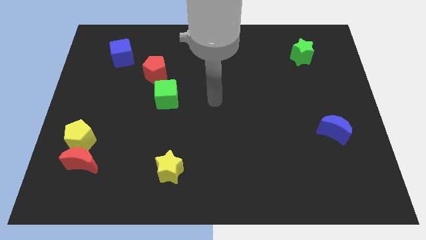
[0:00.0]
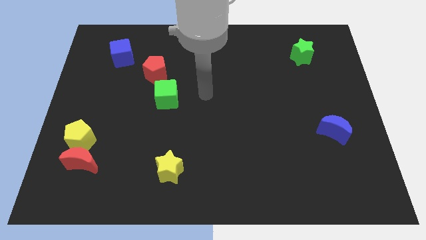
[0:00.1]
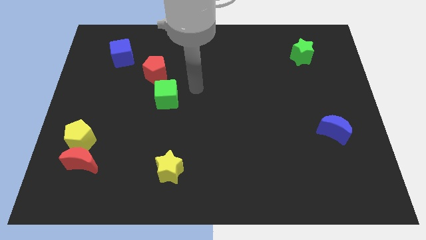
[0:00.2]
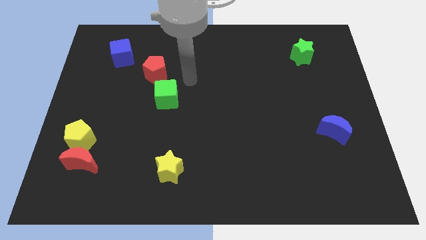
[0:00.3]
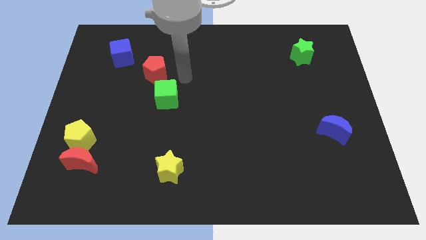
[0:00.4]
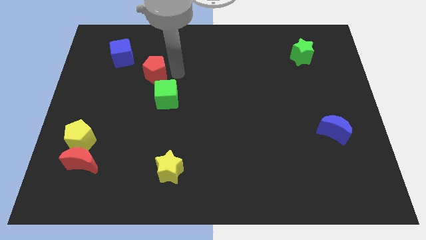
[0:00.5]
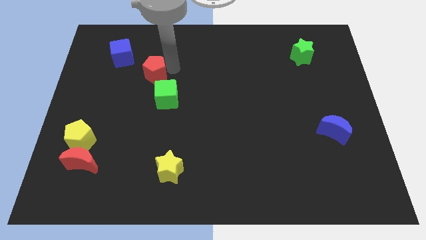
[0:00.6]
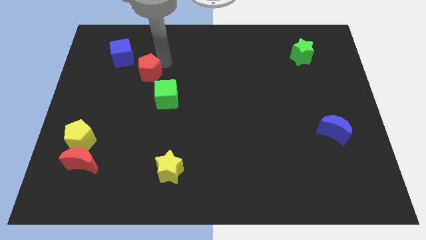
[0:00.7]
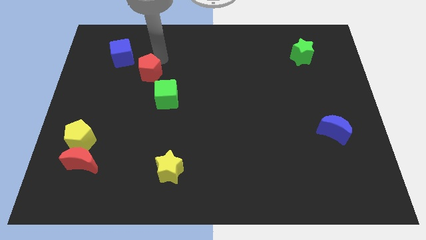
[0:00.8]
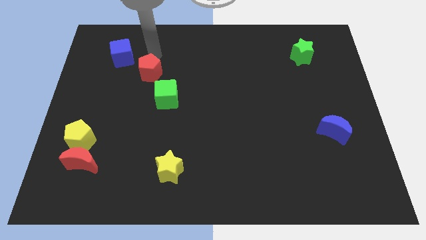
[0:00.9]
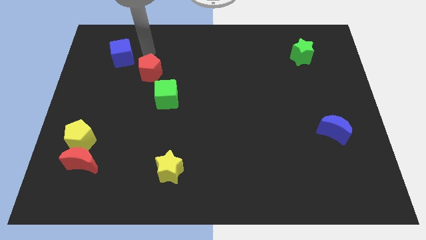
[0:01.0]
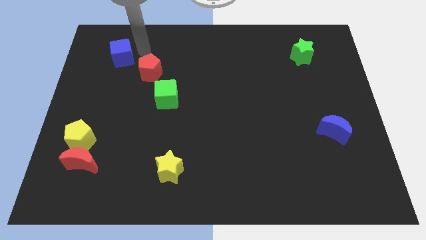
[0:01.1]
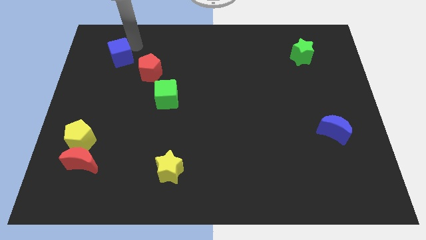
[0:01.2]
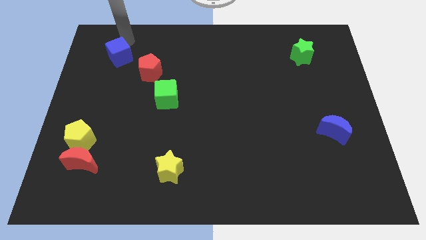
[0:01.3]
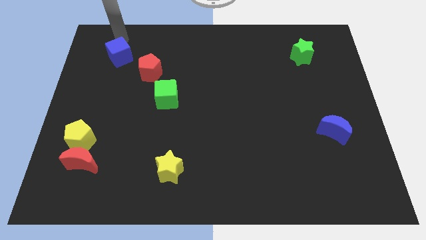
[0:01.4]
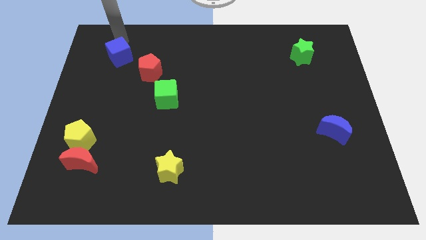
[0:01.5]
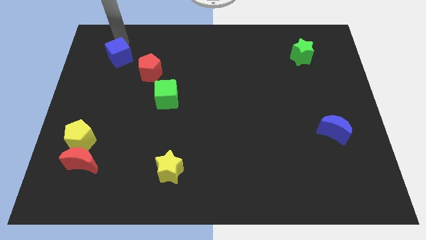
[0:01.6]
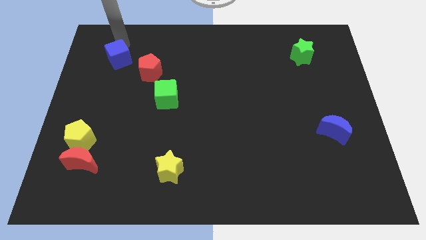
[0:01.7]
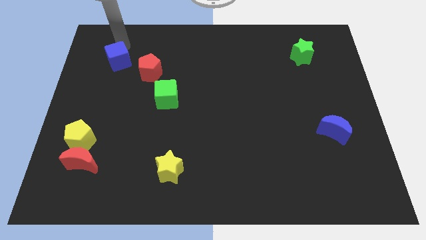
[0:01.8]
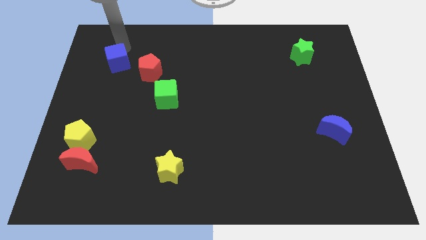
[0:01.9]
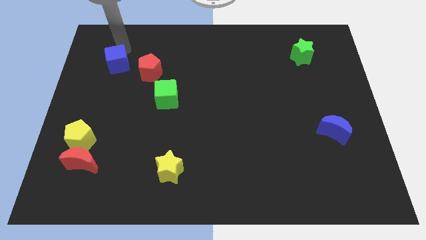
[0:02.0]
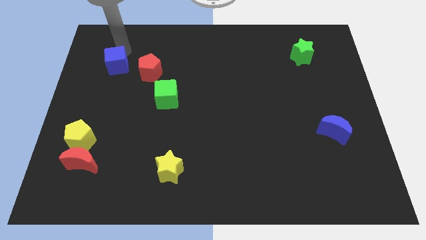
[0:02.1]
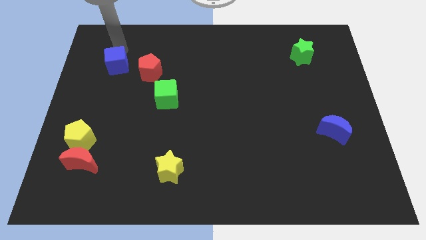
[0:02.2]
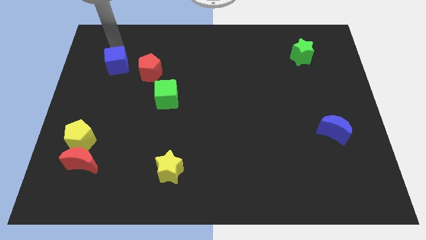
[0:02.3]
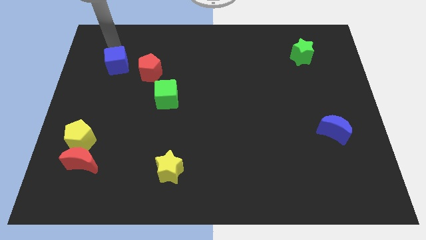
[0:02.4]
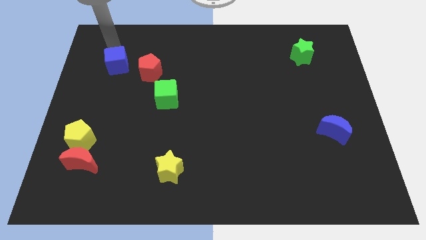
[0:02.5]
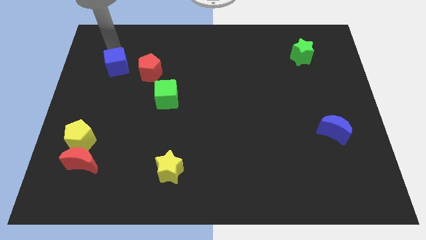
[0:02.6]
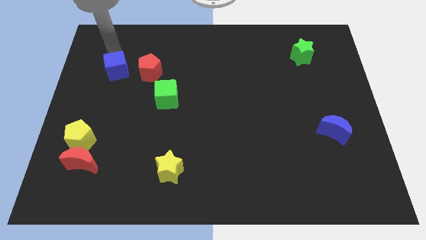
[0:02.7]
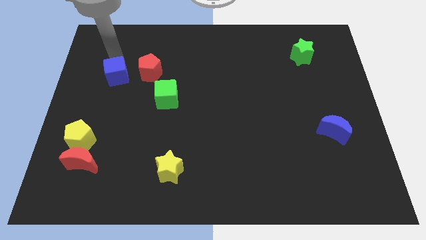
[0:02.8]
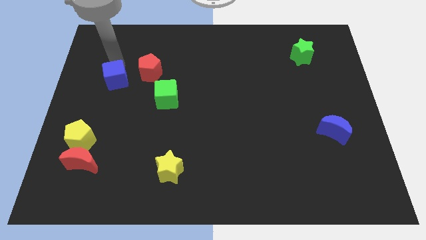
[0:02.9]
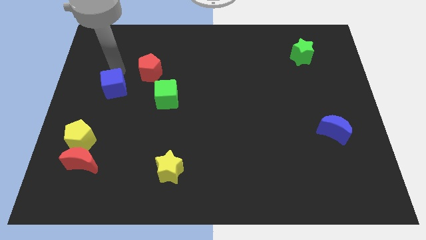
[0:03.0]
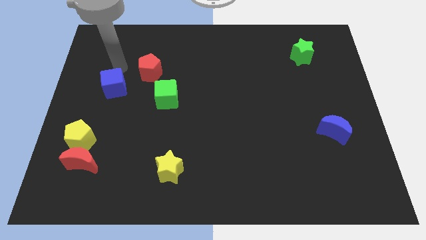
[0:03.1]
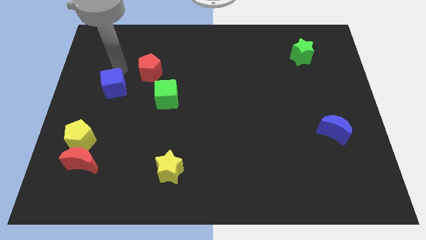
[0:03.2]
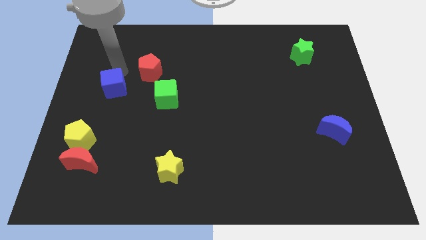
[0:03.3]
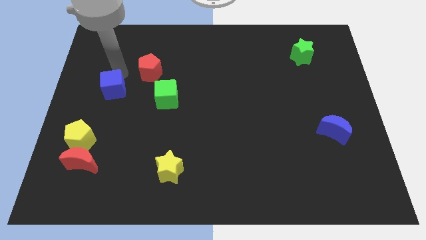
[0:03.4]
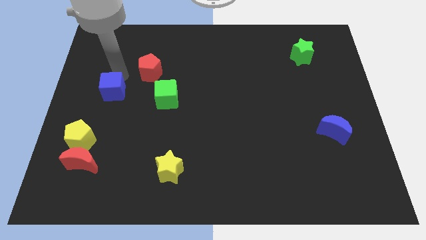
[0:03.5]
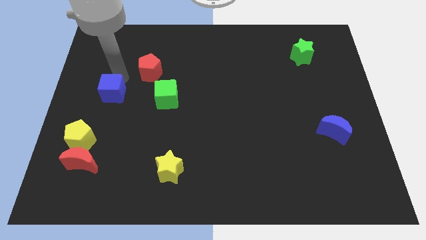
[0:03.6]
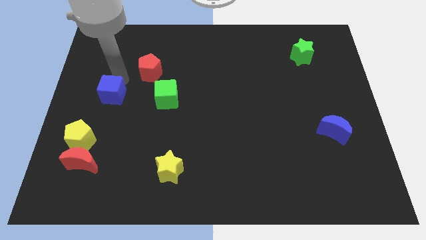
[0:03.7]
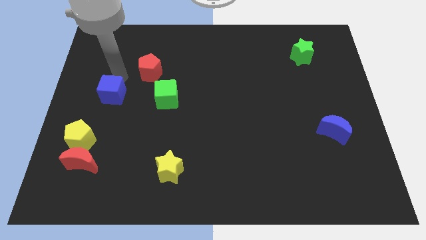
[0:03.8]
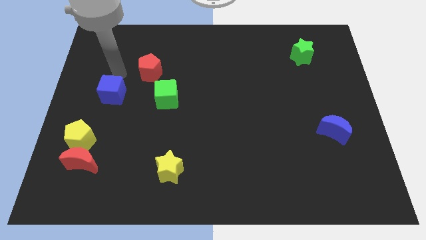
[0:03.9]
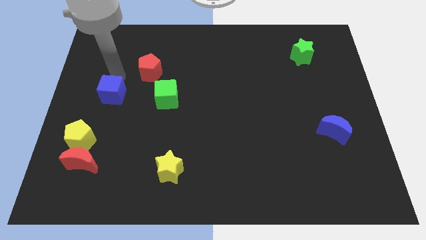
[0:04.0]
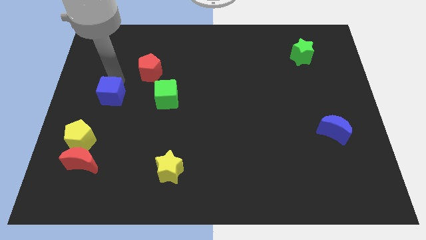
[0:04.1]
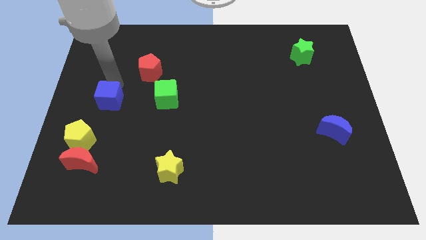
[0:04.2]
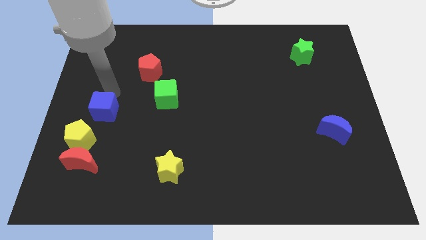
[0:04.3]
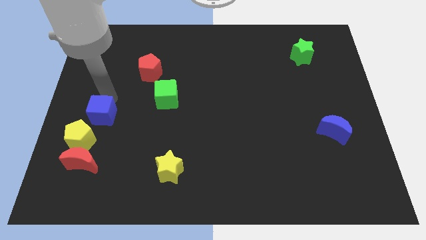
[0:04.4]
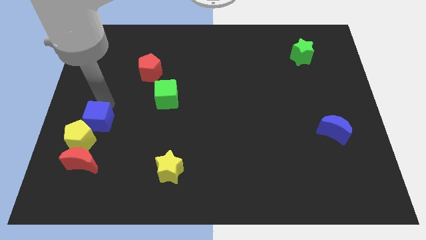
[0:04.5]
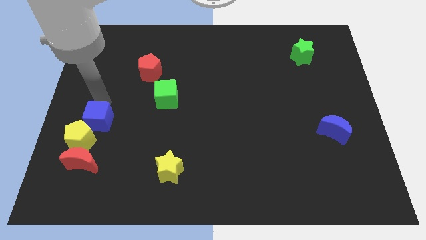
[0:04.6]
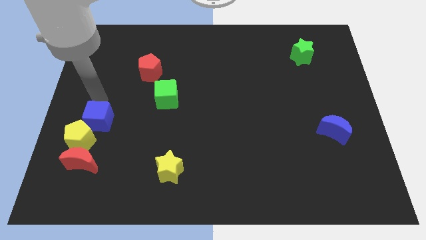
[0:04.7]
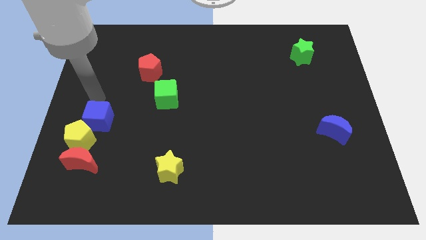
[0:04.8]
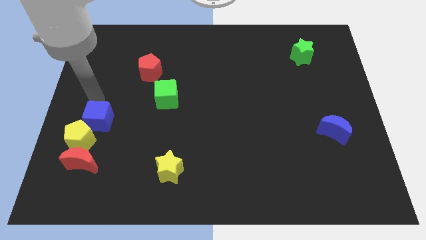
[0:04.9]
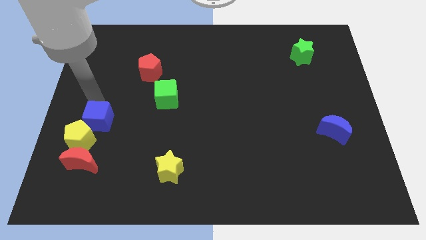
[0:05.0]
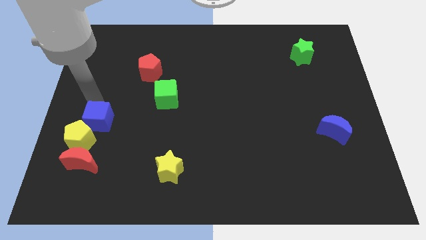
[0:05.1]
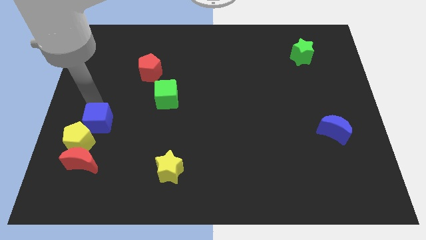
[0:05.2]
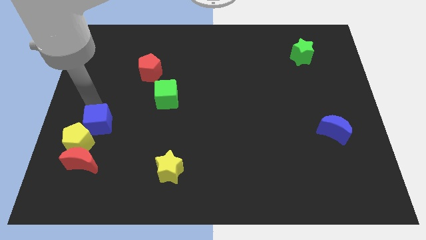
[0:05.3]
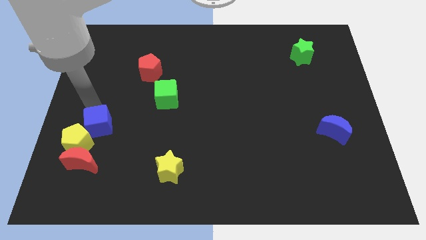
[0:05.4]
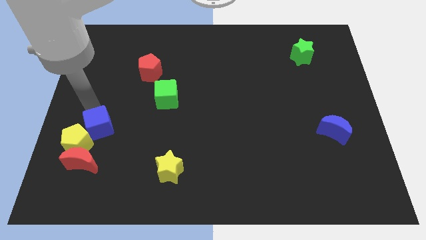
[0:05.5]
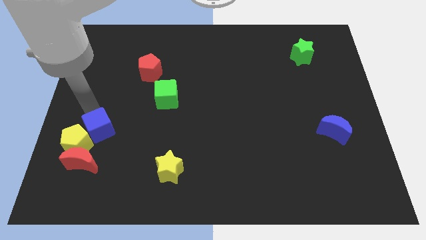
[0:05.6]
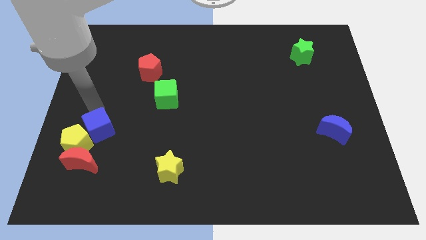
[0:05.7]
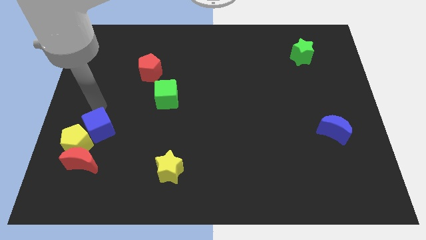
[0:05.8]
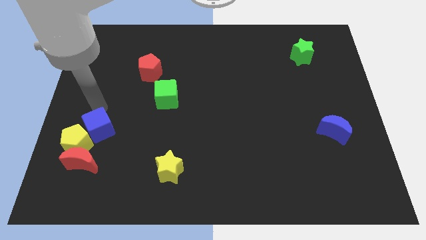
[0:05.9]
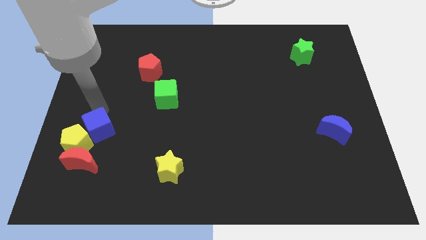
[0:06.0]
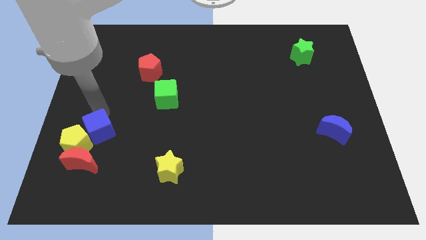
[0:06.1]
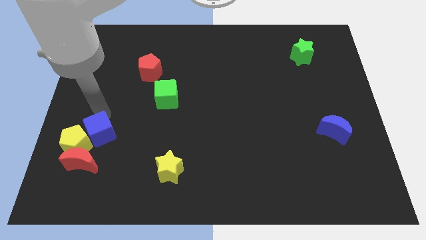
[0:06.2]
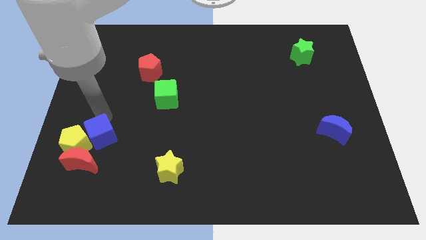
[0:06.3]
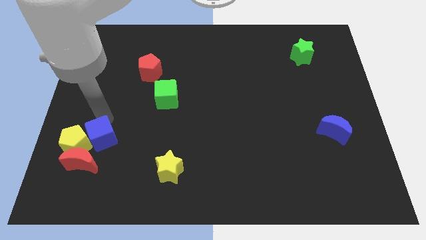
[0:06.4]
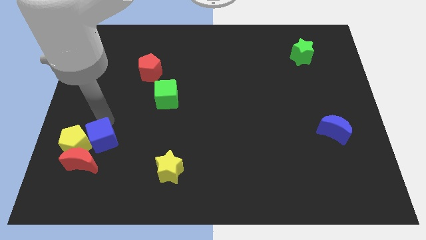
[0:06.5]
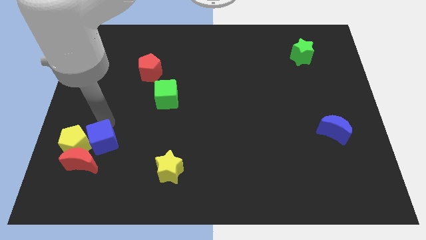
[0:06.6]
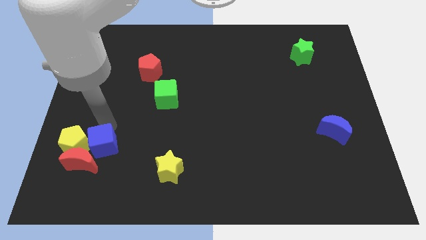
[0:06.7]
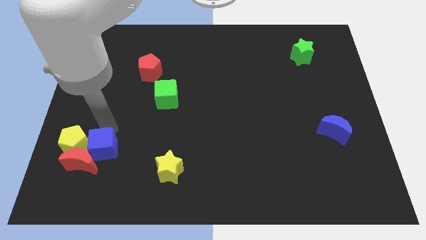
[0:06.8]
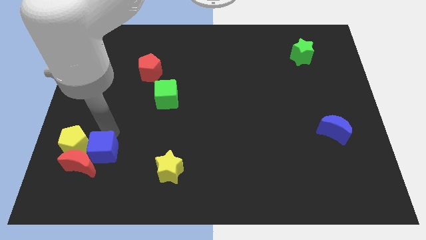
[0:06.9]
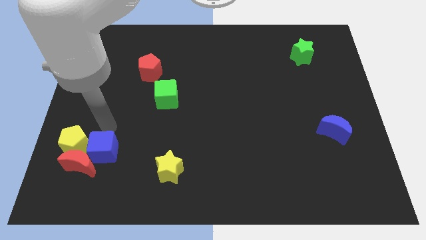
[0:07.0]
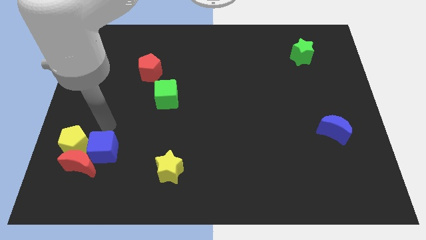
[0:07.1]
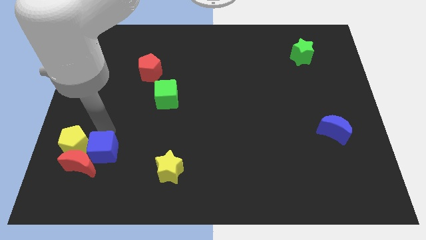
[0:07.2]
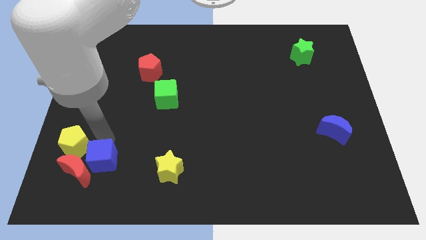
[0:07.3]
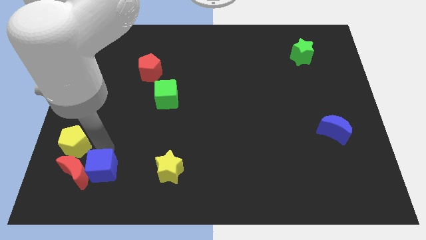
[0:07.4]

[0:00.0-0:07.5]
push the blue cube to the bottom right side of the red moon
